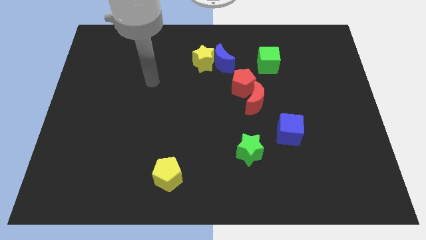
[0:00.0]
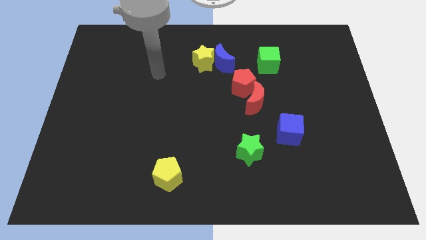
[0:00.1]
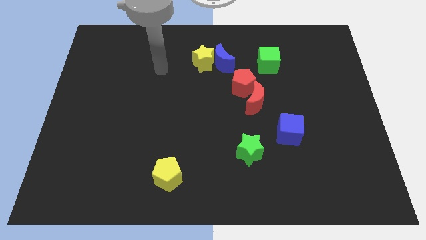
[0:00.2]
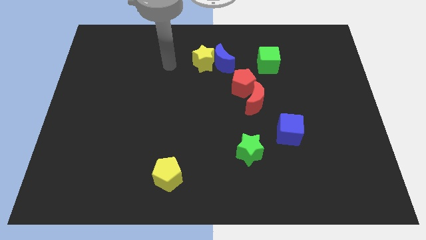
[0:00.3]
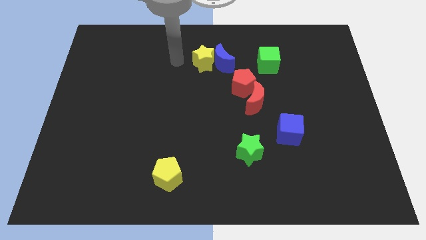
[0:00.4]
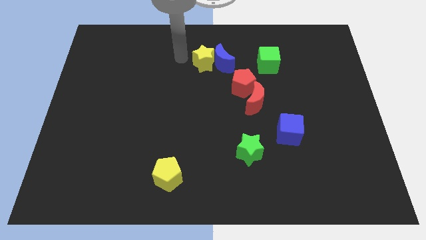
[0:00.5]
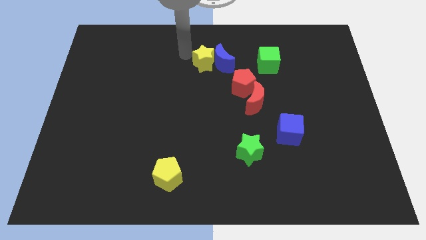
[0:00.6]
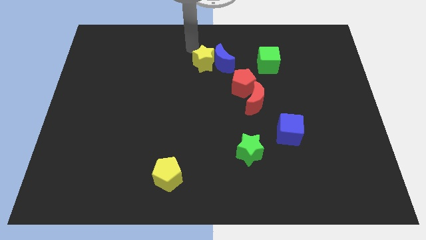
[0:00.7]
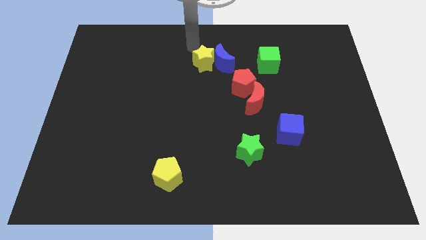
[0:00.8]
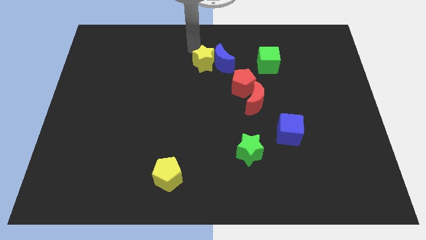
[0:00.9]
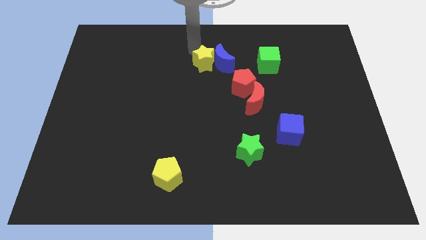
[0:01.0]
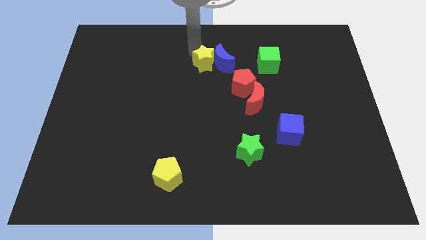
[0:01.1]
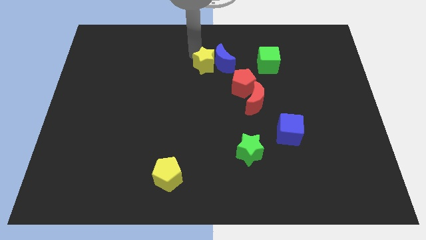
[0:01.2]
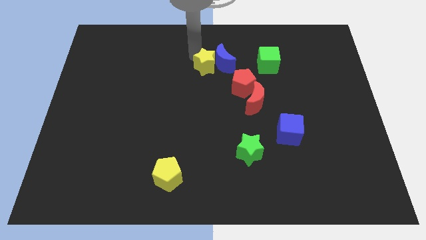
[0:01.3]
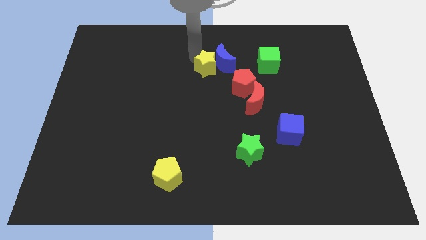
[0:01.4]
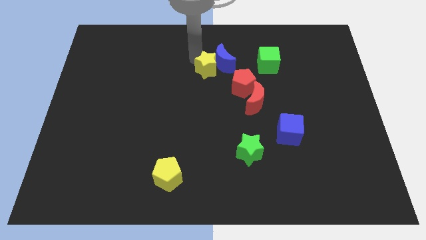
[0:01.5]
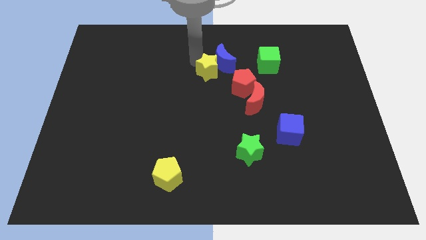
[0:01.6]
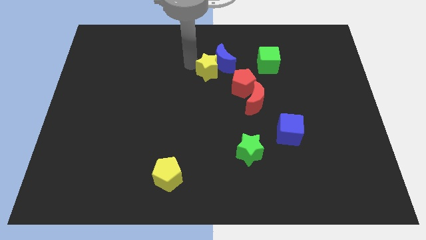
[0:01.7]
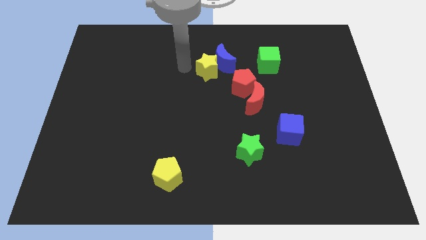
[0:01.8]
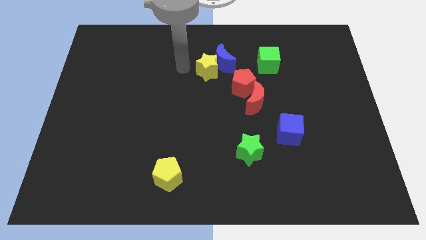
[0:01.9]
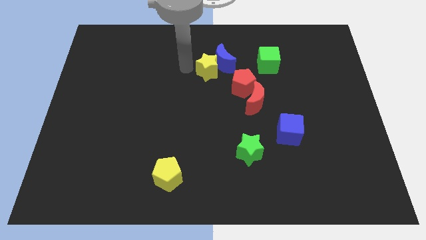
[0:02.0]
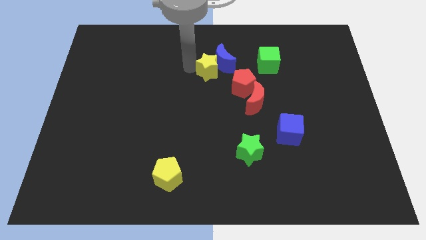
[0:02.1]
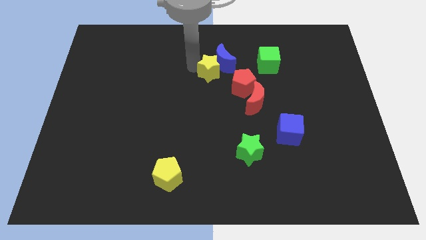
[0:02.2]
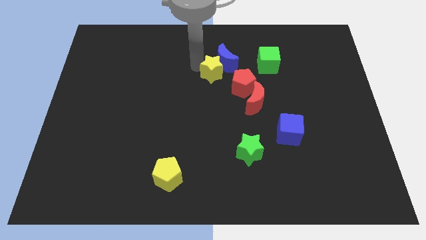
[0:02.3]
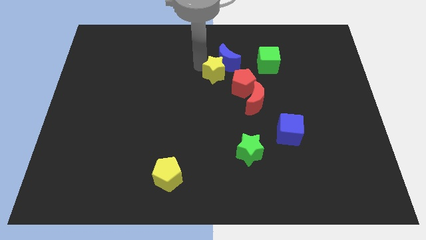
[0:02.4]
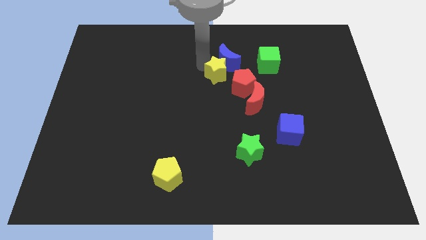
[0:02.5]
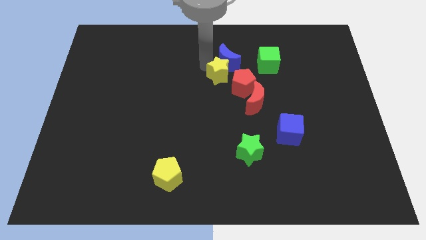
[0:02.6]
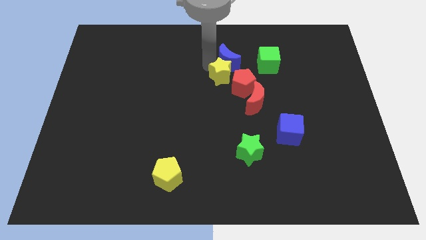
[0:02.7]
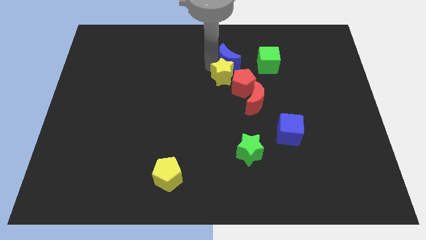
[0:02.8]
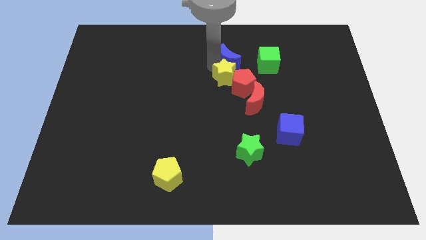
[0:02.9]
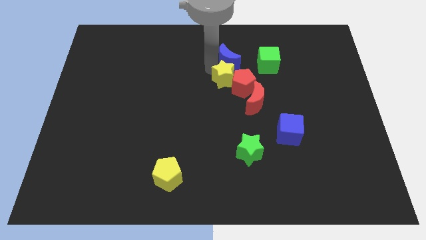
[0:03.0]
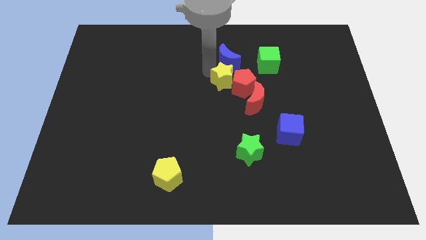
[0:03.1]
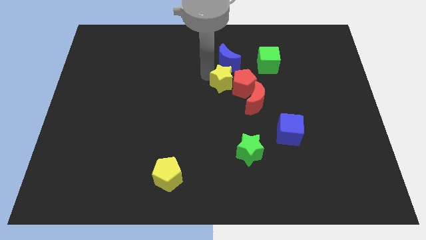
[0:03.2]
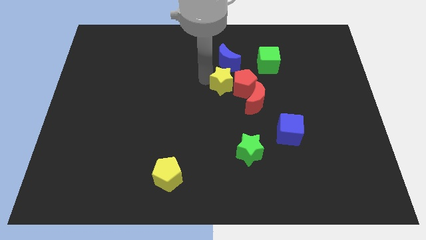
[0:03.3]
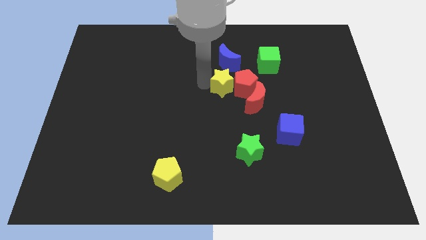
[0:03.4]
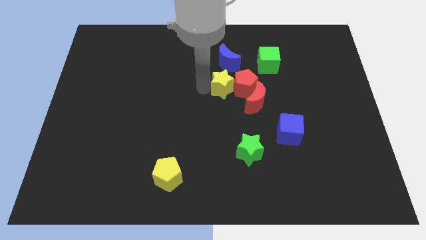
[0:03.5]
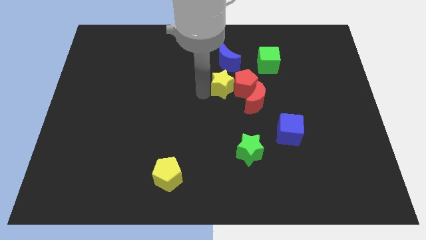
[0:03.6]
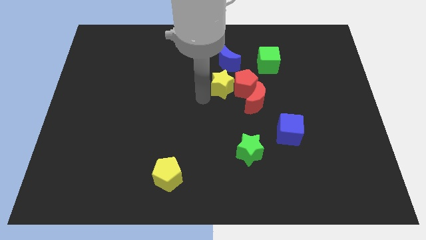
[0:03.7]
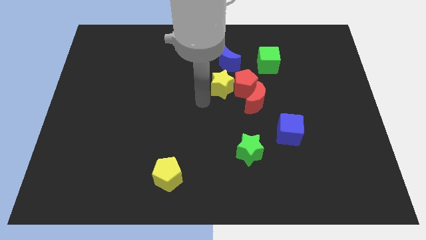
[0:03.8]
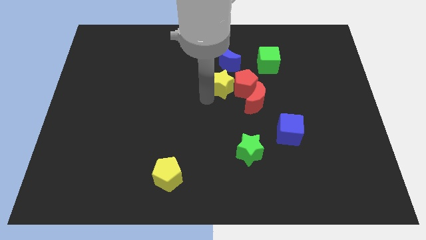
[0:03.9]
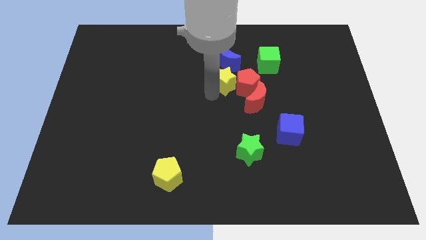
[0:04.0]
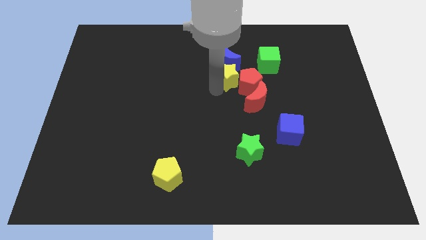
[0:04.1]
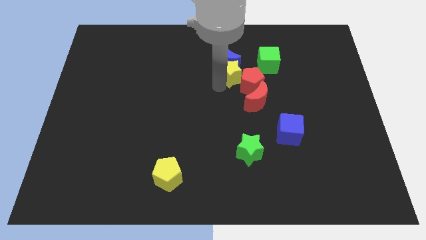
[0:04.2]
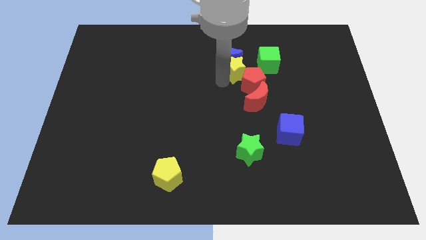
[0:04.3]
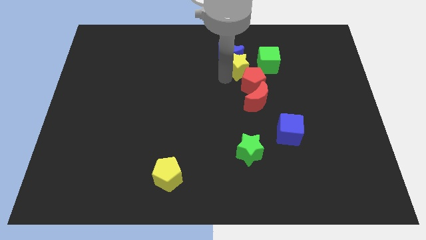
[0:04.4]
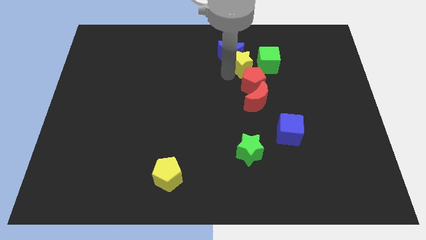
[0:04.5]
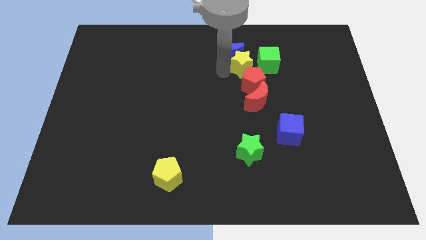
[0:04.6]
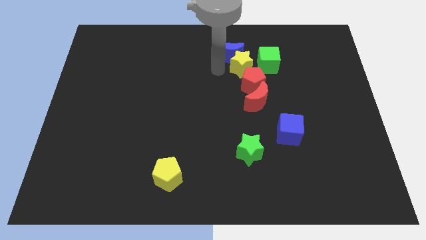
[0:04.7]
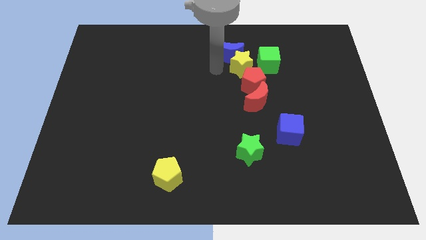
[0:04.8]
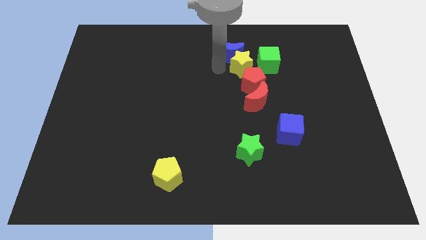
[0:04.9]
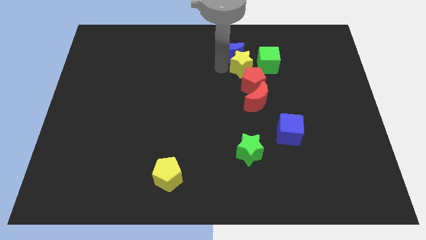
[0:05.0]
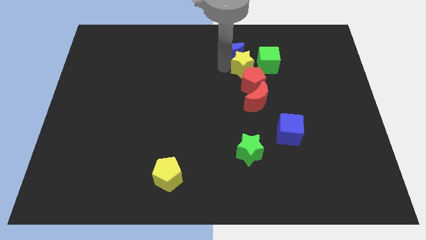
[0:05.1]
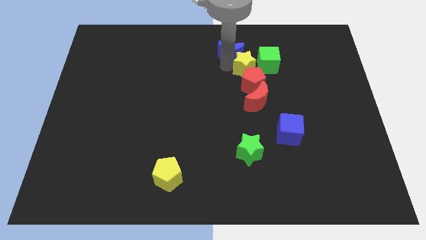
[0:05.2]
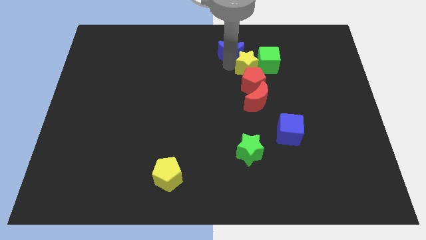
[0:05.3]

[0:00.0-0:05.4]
push the yellow star close to the green cube

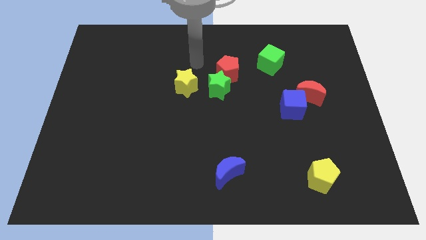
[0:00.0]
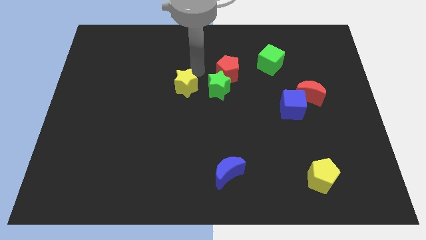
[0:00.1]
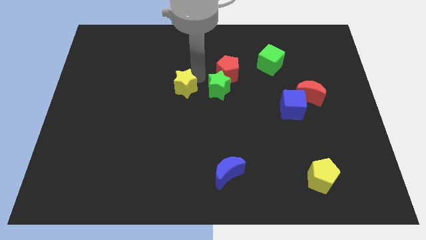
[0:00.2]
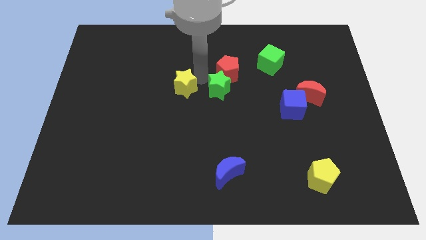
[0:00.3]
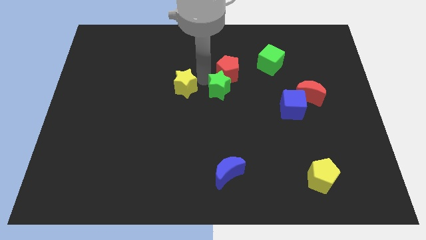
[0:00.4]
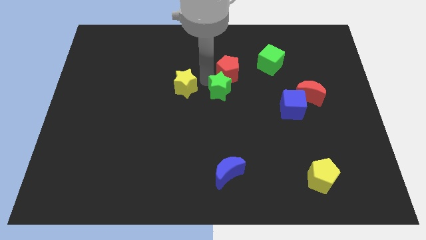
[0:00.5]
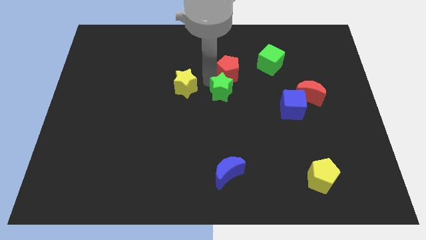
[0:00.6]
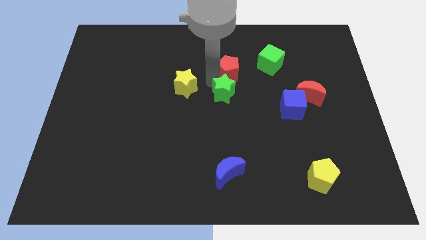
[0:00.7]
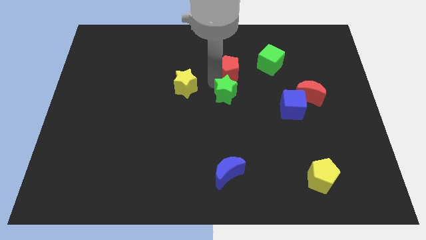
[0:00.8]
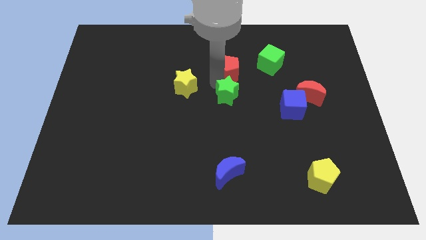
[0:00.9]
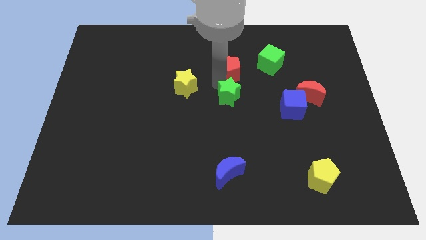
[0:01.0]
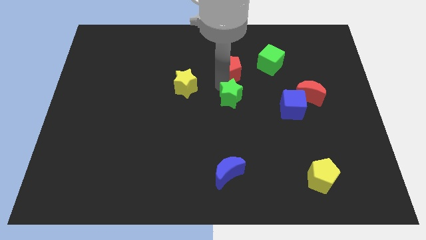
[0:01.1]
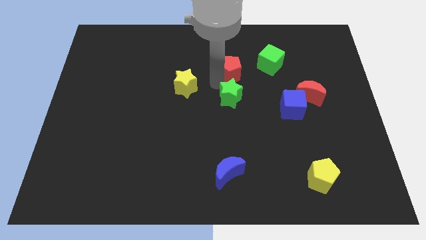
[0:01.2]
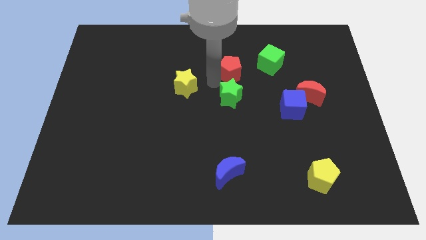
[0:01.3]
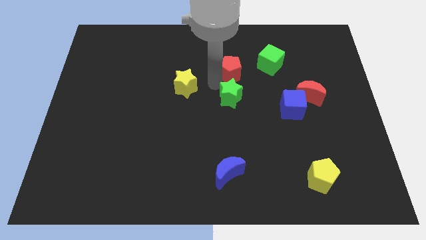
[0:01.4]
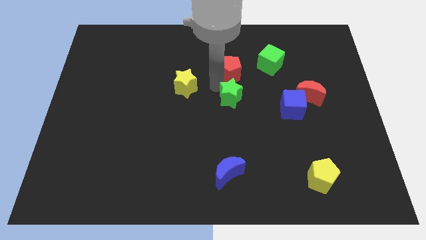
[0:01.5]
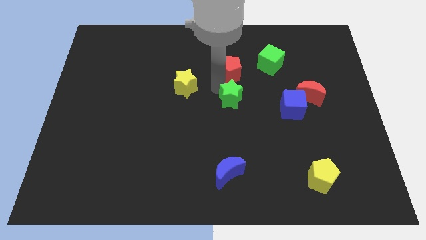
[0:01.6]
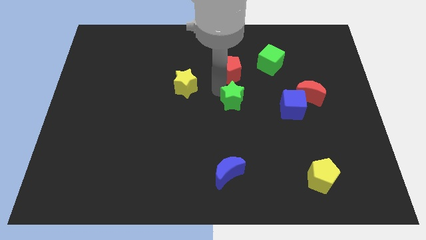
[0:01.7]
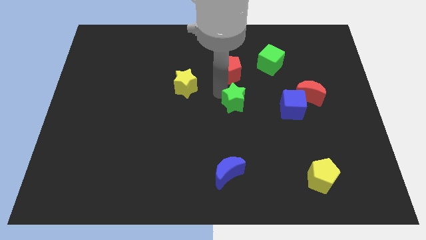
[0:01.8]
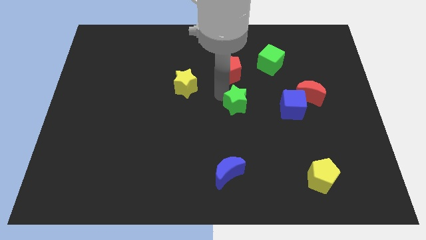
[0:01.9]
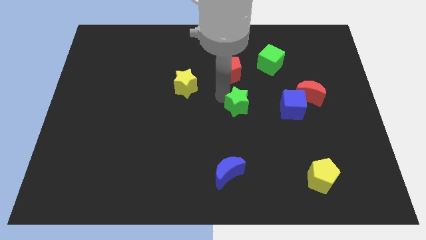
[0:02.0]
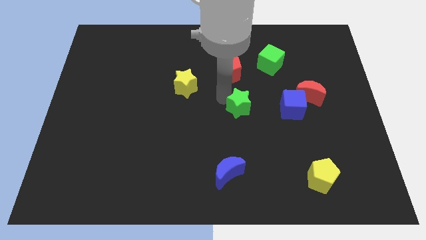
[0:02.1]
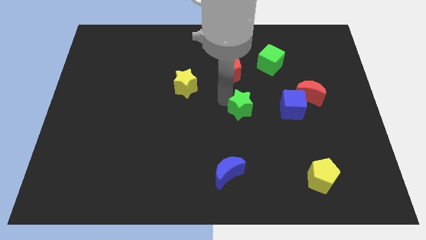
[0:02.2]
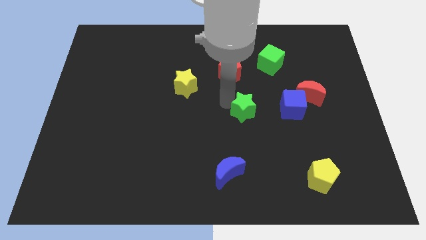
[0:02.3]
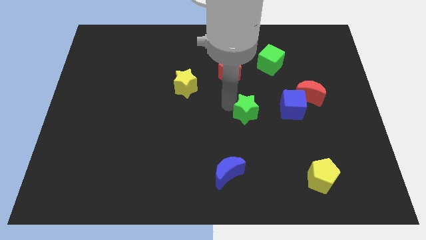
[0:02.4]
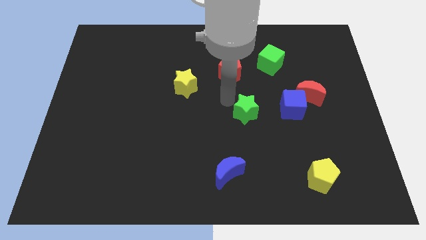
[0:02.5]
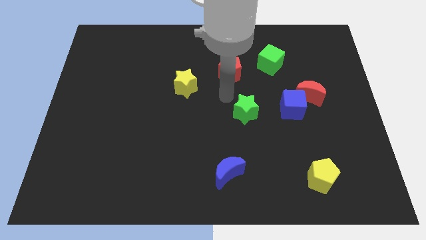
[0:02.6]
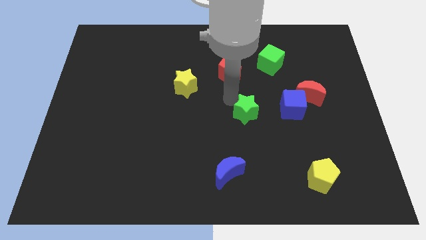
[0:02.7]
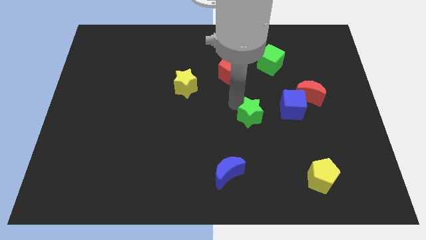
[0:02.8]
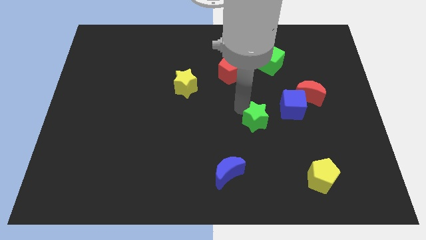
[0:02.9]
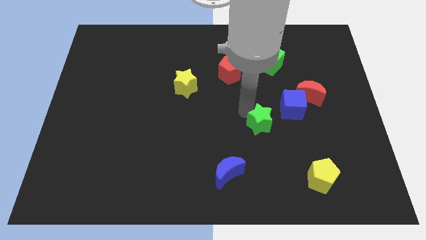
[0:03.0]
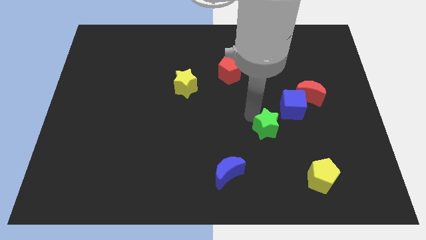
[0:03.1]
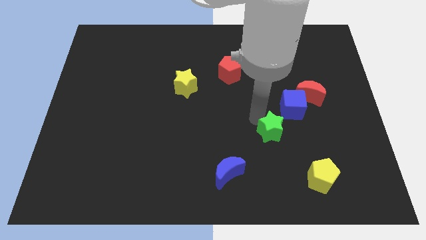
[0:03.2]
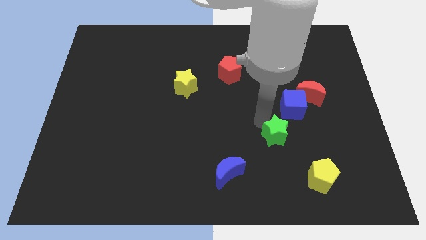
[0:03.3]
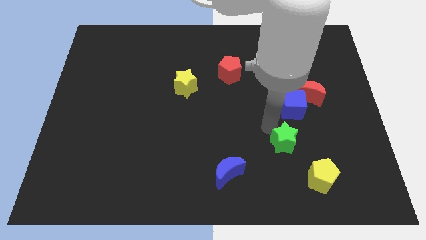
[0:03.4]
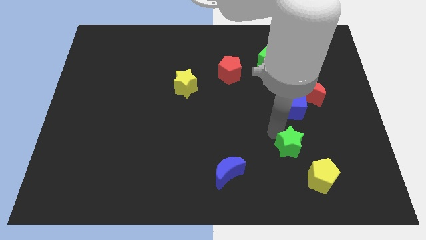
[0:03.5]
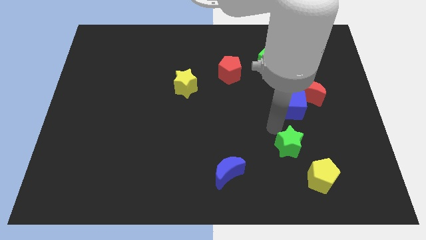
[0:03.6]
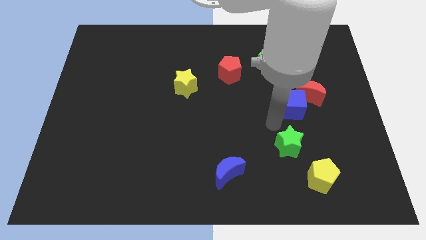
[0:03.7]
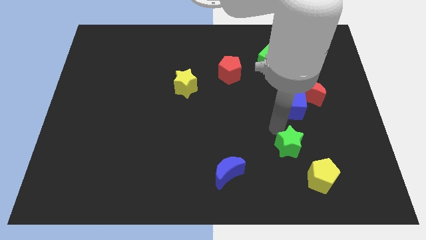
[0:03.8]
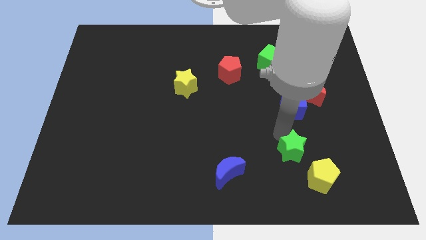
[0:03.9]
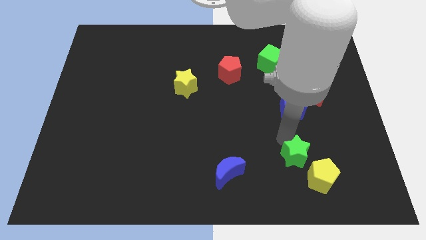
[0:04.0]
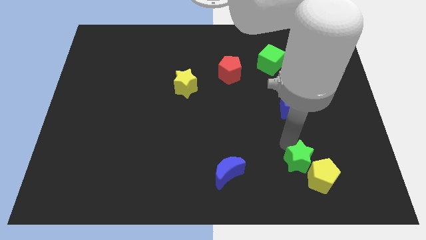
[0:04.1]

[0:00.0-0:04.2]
slide the green star towards the yellow pentagon
